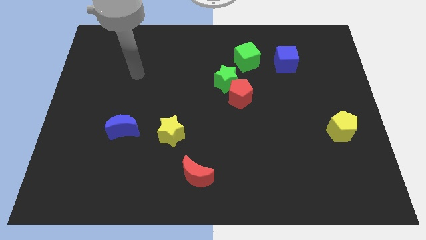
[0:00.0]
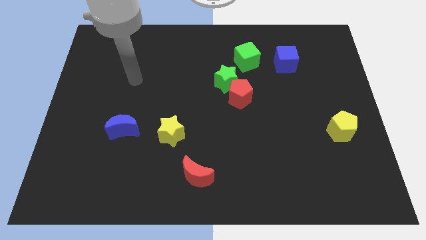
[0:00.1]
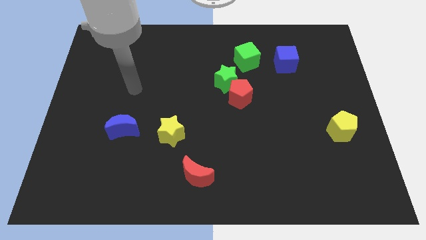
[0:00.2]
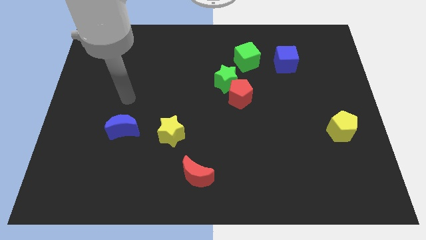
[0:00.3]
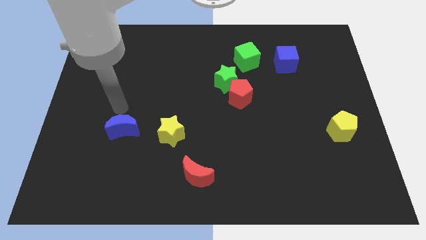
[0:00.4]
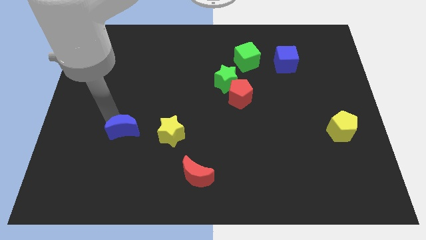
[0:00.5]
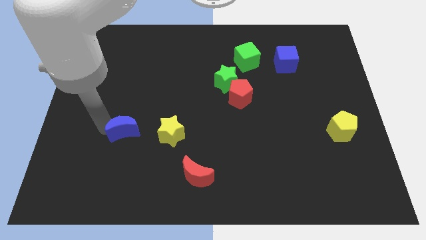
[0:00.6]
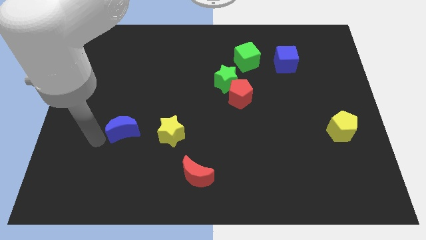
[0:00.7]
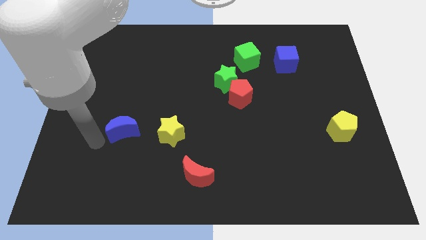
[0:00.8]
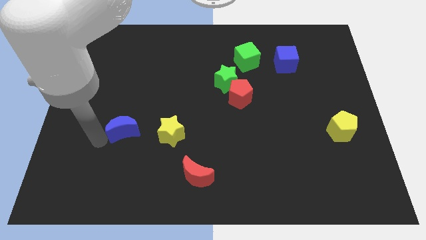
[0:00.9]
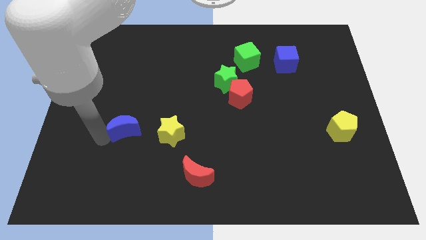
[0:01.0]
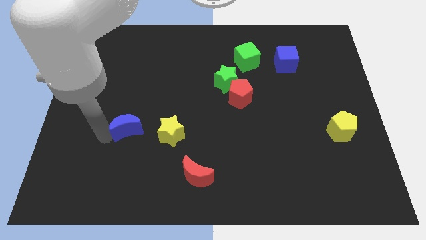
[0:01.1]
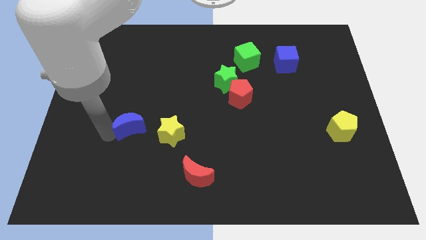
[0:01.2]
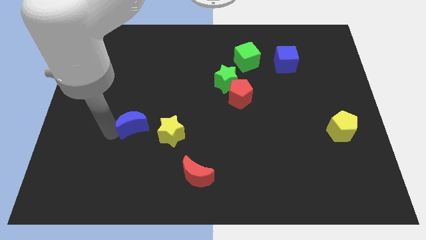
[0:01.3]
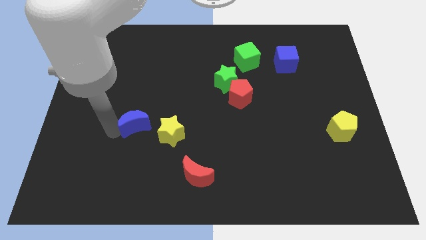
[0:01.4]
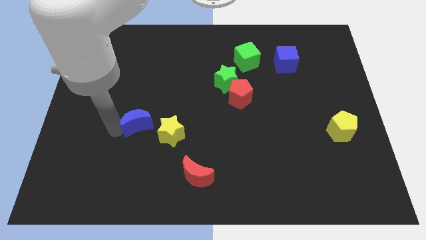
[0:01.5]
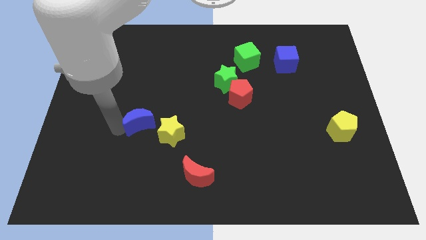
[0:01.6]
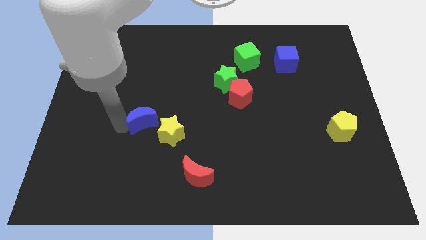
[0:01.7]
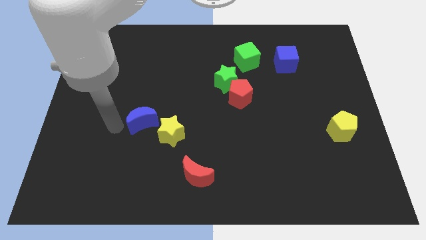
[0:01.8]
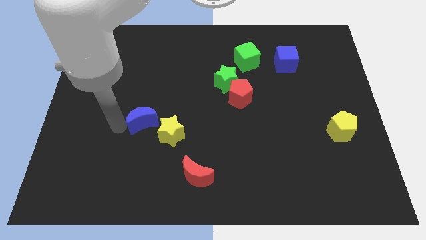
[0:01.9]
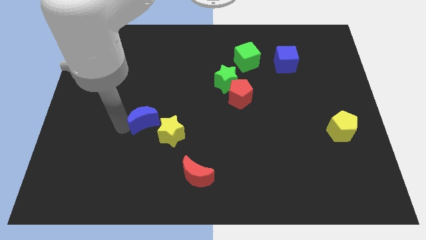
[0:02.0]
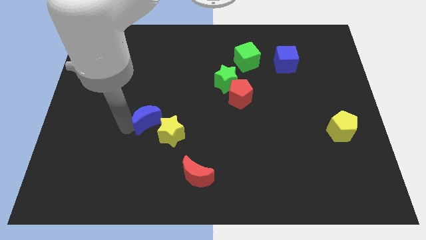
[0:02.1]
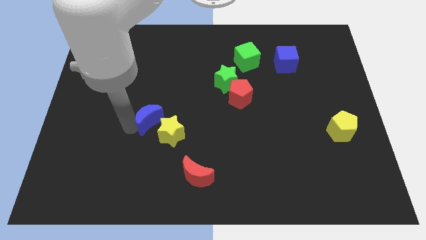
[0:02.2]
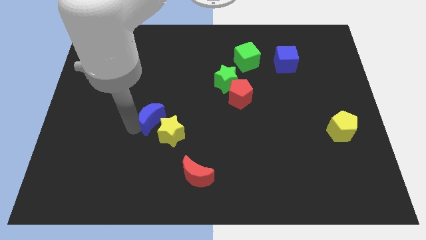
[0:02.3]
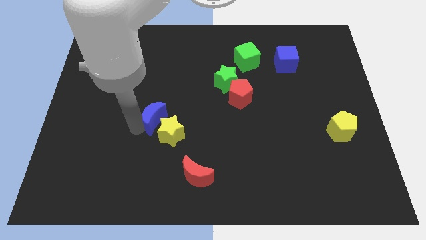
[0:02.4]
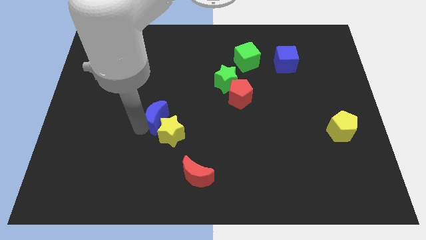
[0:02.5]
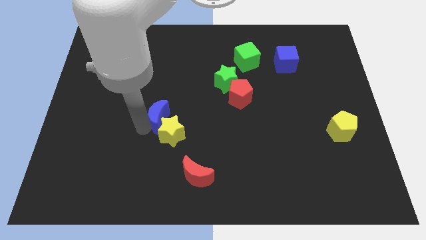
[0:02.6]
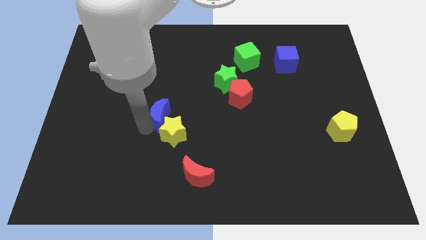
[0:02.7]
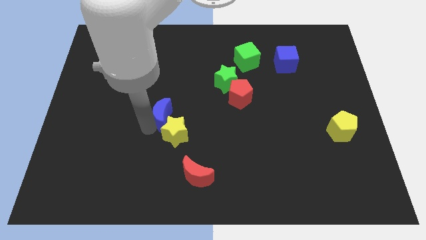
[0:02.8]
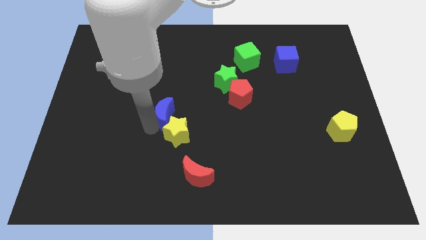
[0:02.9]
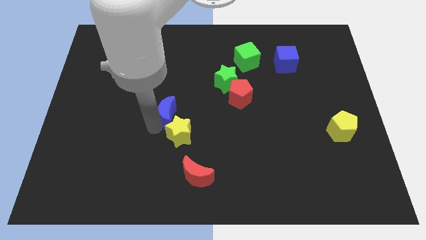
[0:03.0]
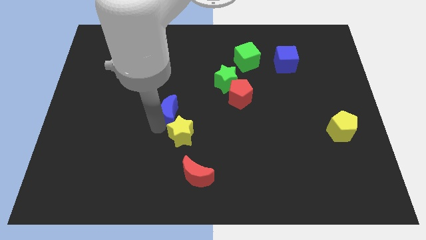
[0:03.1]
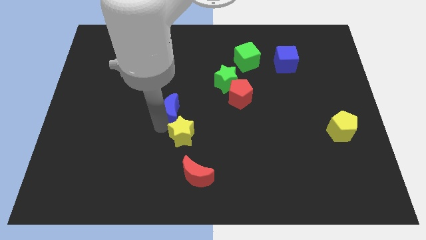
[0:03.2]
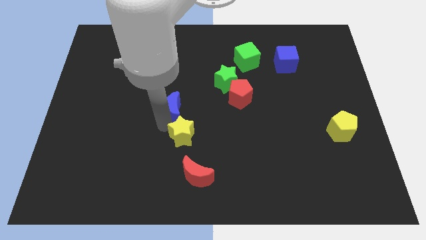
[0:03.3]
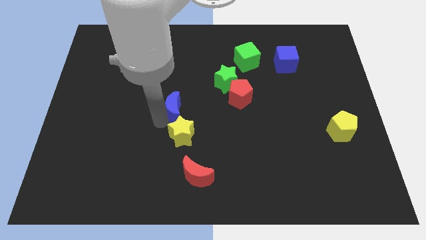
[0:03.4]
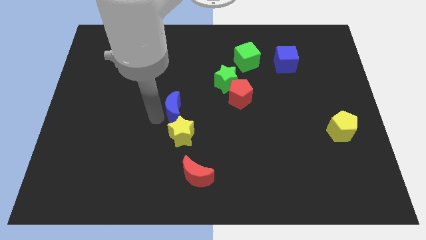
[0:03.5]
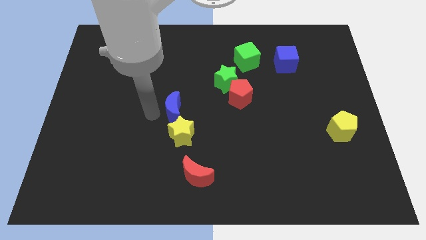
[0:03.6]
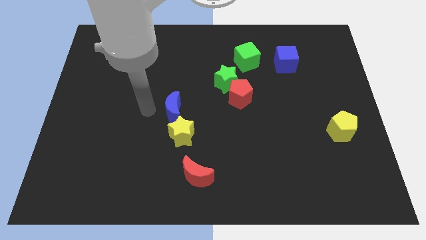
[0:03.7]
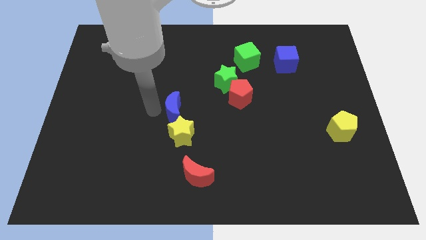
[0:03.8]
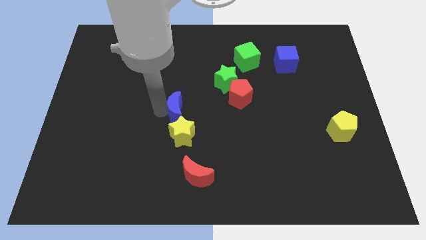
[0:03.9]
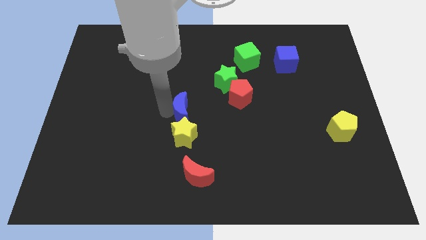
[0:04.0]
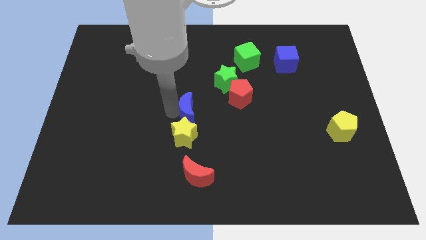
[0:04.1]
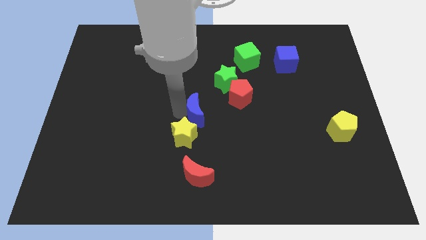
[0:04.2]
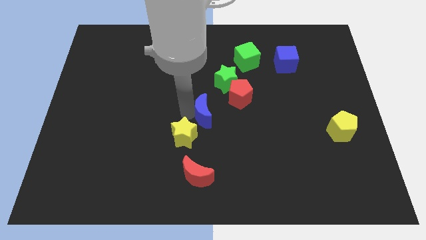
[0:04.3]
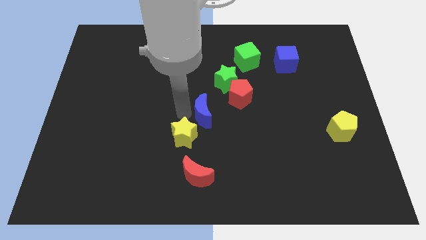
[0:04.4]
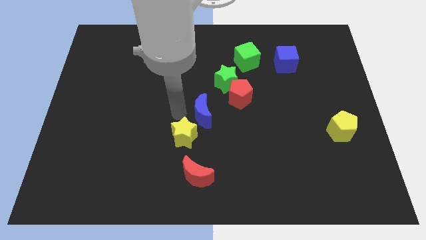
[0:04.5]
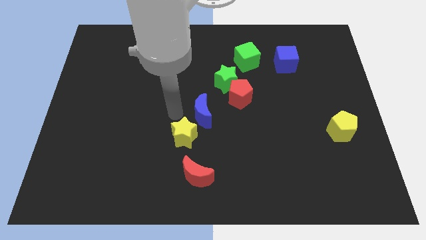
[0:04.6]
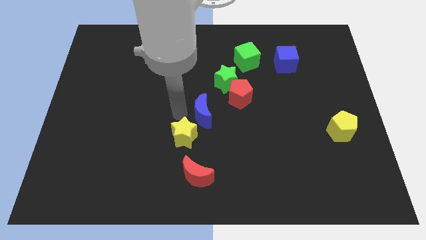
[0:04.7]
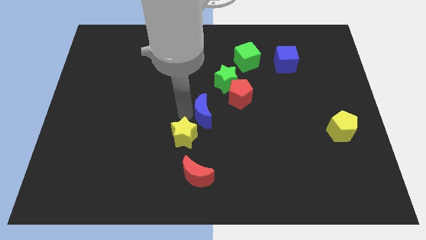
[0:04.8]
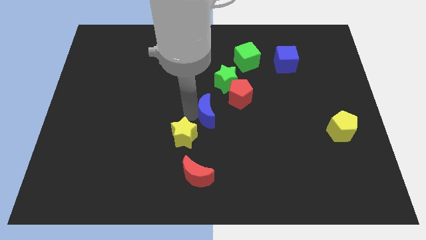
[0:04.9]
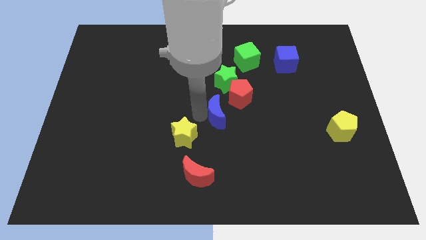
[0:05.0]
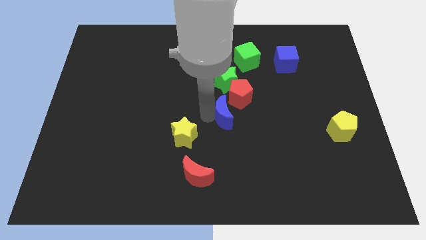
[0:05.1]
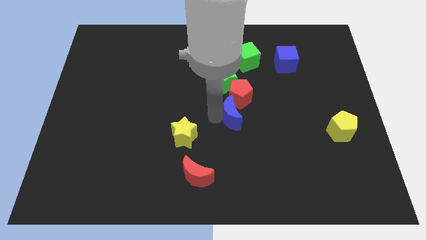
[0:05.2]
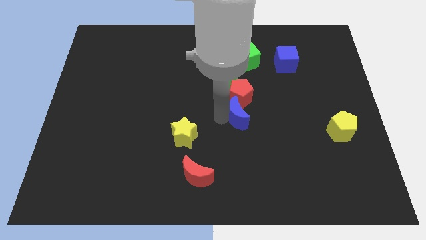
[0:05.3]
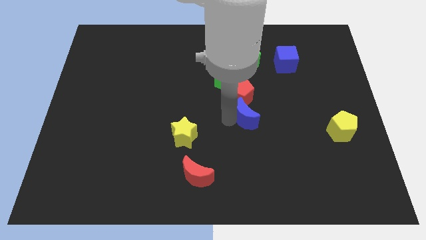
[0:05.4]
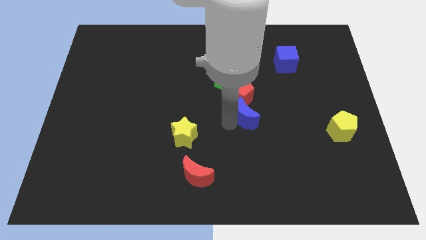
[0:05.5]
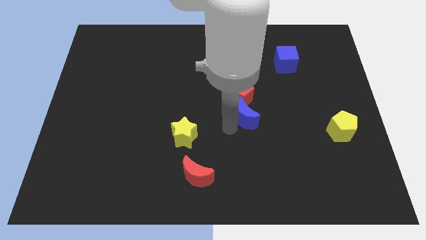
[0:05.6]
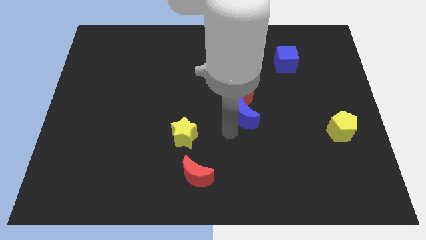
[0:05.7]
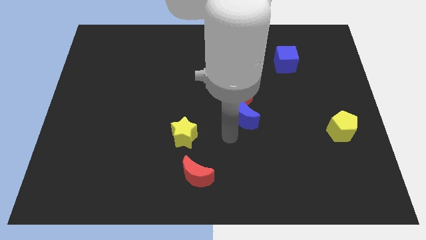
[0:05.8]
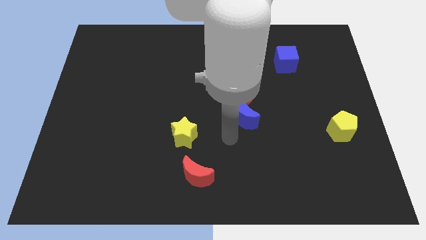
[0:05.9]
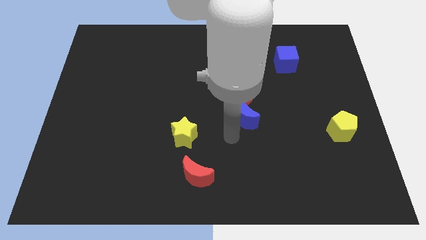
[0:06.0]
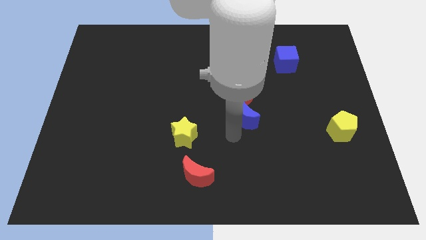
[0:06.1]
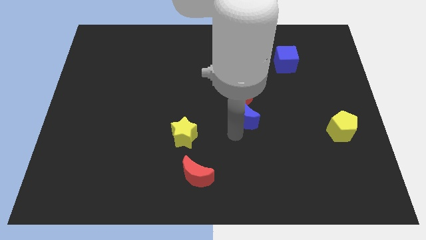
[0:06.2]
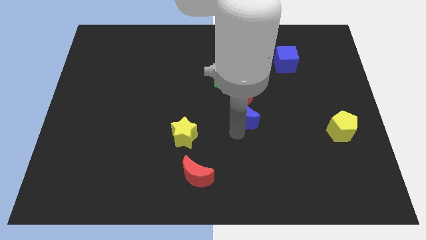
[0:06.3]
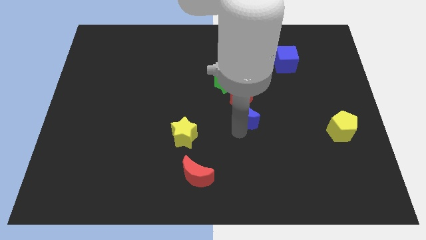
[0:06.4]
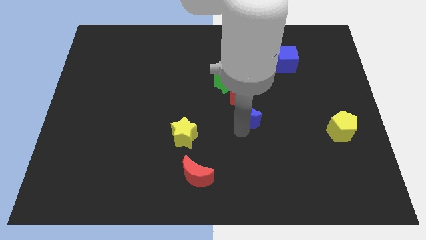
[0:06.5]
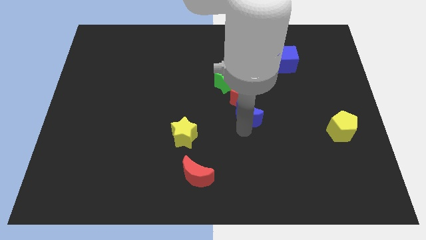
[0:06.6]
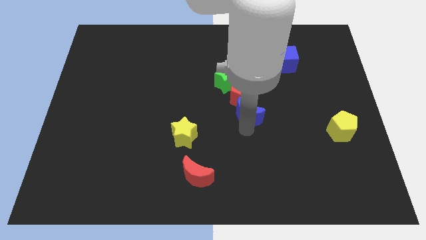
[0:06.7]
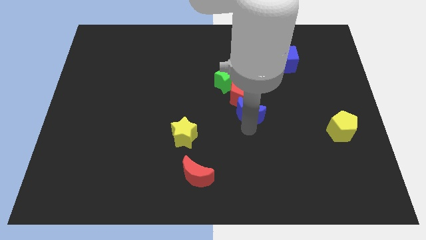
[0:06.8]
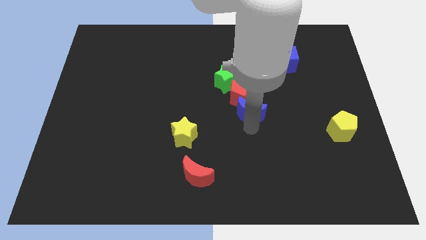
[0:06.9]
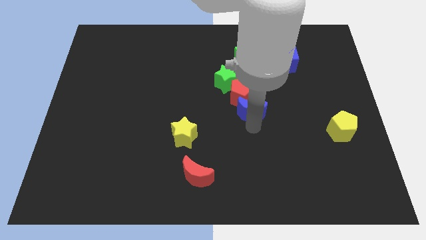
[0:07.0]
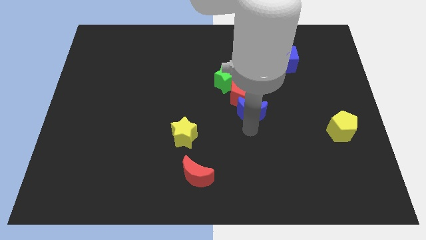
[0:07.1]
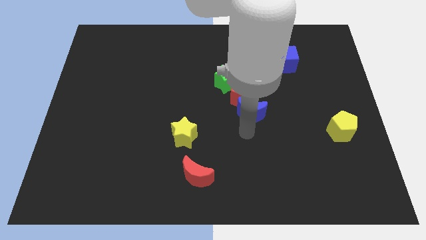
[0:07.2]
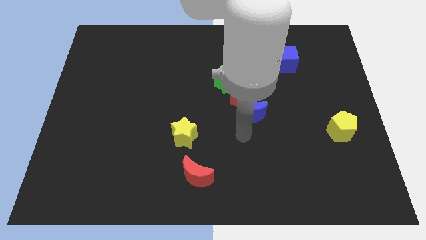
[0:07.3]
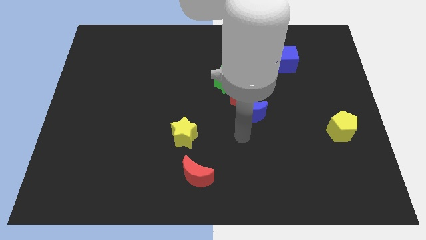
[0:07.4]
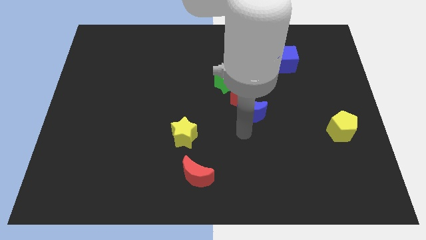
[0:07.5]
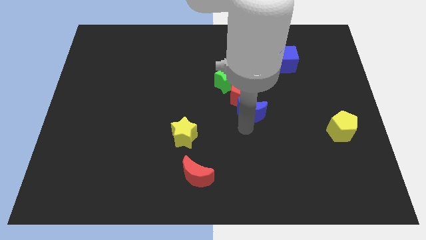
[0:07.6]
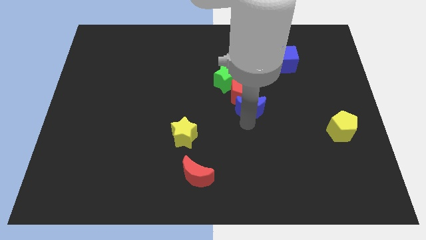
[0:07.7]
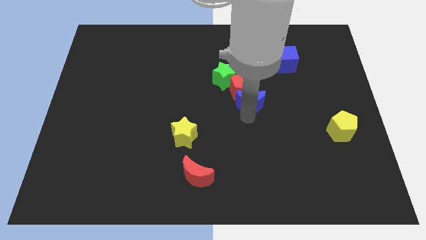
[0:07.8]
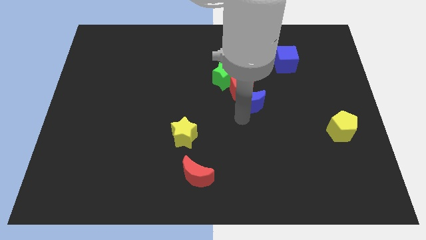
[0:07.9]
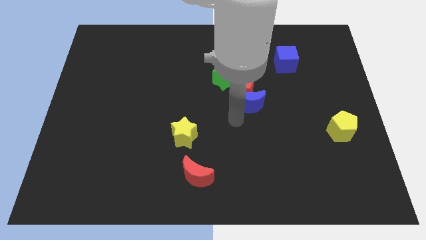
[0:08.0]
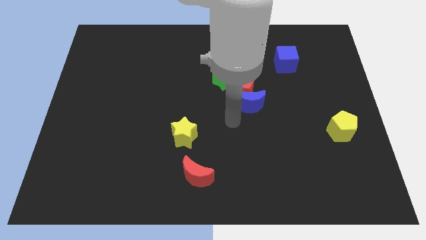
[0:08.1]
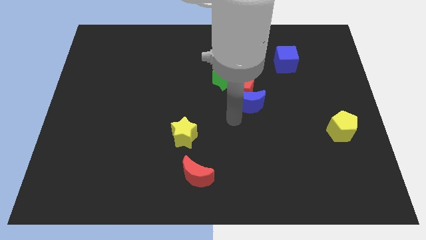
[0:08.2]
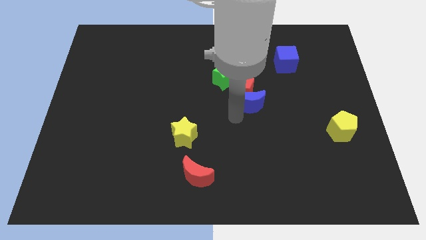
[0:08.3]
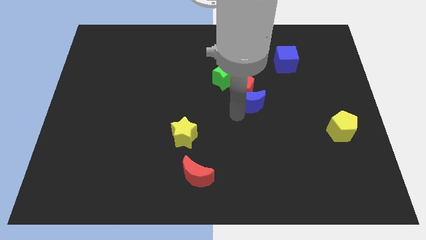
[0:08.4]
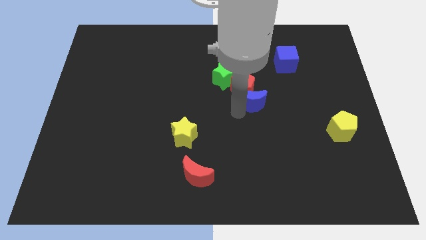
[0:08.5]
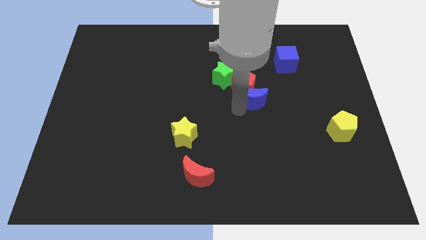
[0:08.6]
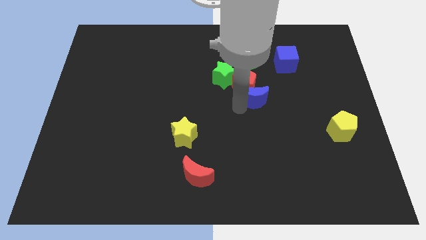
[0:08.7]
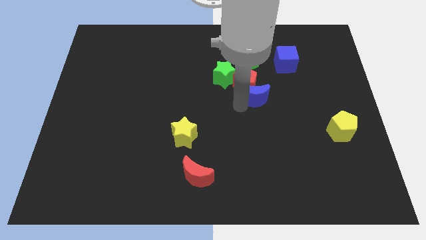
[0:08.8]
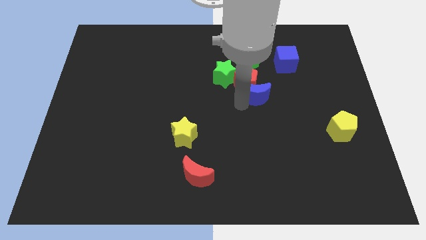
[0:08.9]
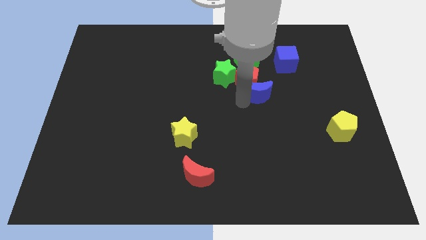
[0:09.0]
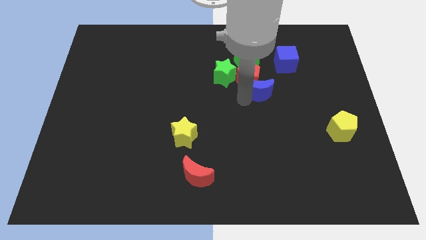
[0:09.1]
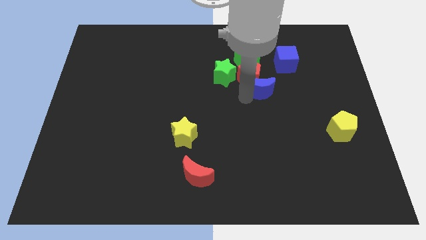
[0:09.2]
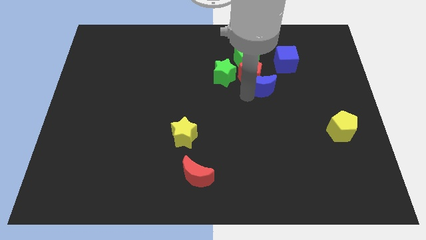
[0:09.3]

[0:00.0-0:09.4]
move the blue moon right of the green star
